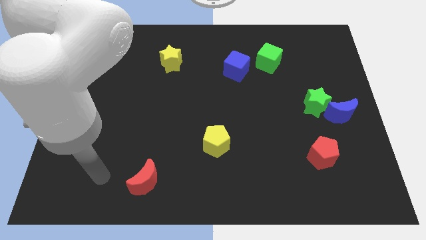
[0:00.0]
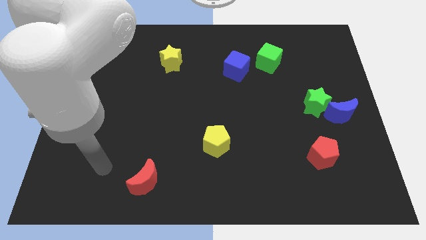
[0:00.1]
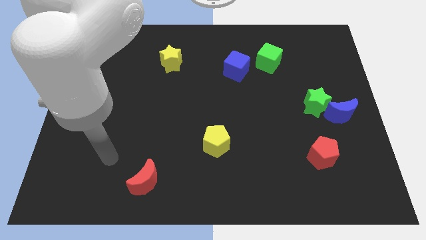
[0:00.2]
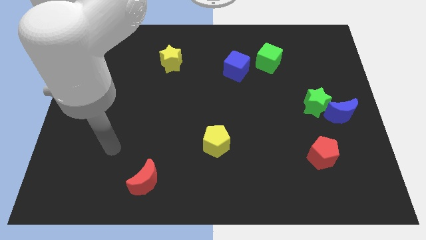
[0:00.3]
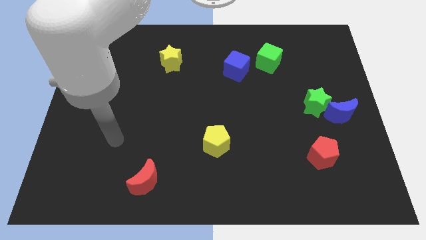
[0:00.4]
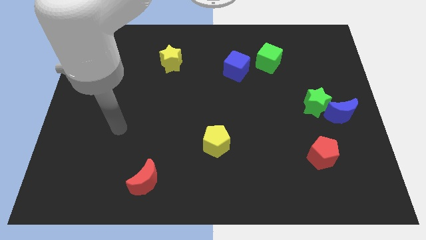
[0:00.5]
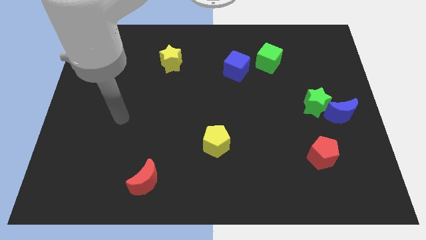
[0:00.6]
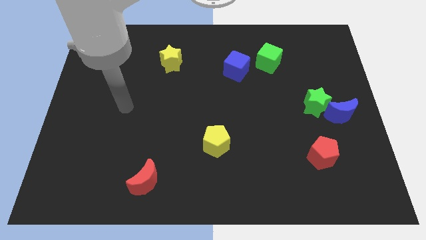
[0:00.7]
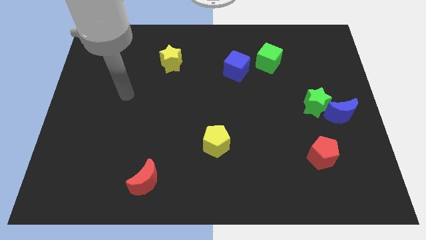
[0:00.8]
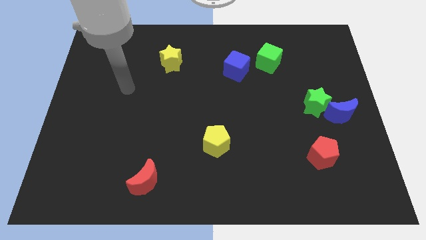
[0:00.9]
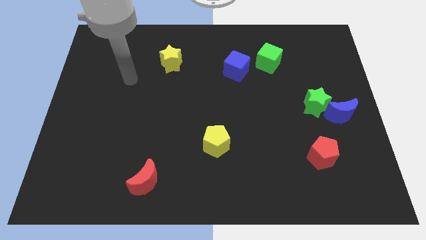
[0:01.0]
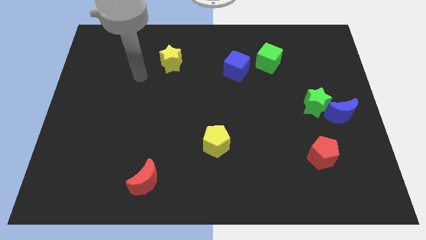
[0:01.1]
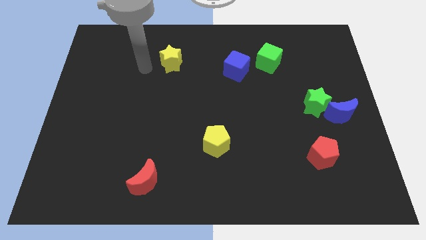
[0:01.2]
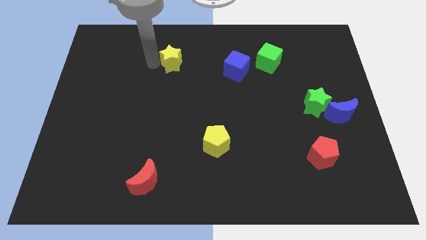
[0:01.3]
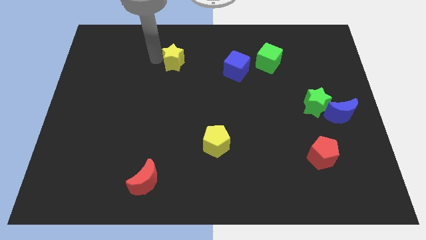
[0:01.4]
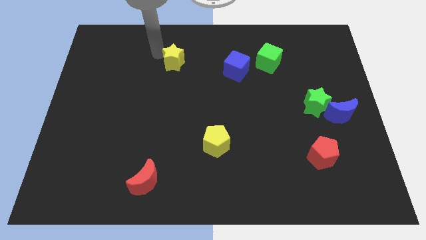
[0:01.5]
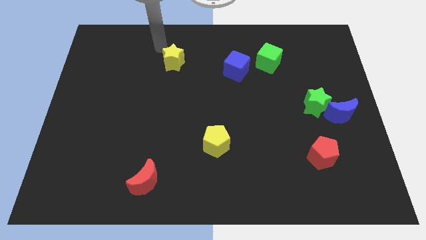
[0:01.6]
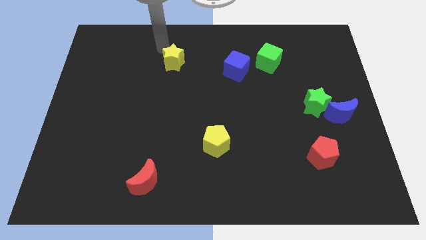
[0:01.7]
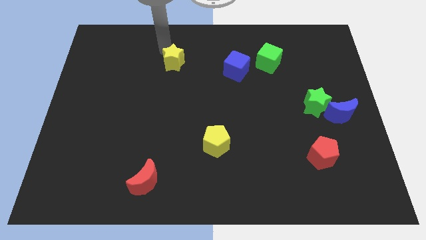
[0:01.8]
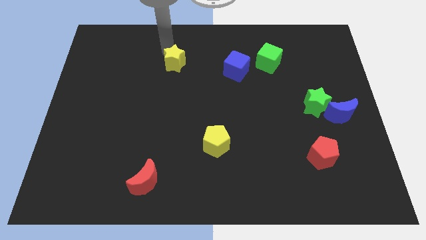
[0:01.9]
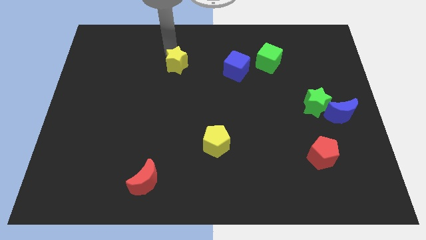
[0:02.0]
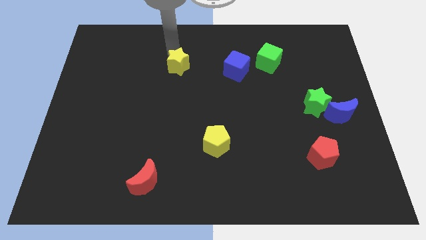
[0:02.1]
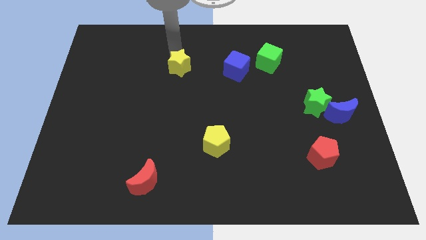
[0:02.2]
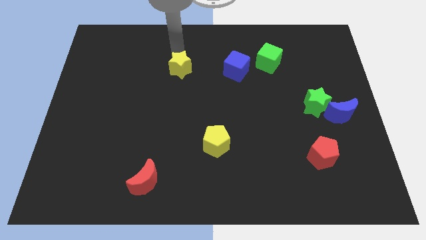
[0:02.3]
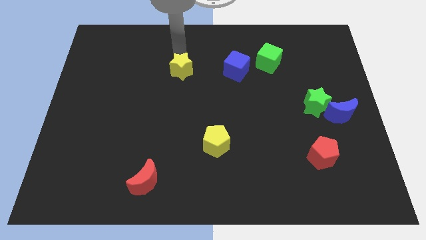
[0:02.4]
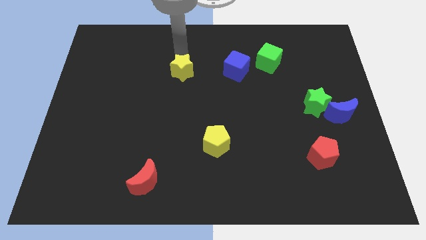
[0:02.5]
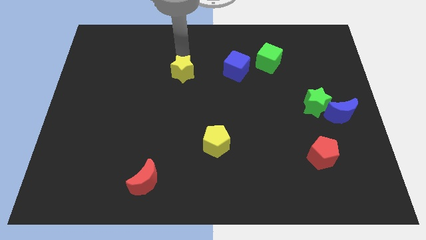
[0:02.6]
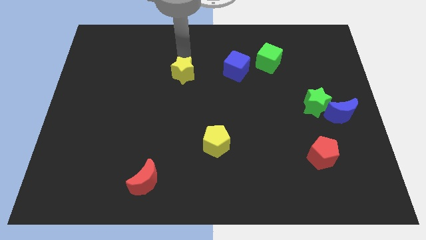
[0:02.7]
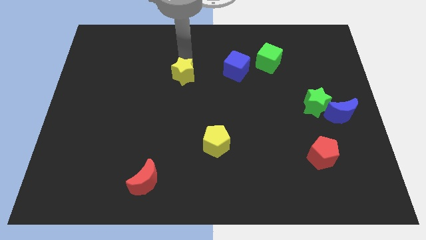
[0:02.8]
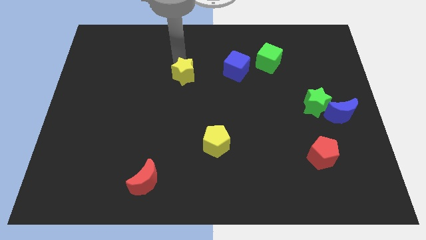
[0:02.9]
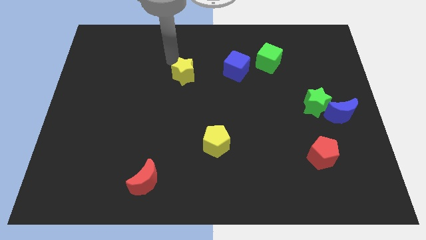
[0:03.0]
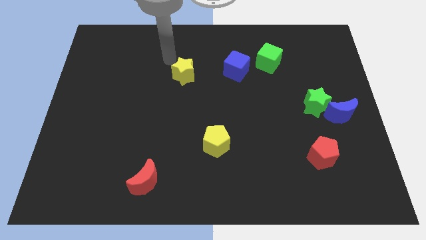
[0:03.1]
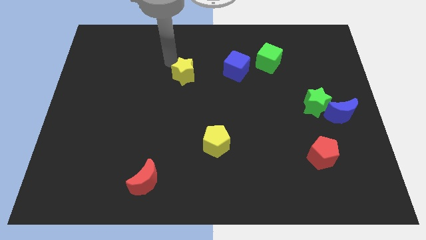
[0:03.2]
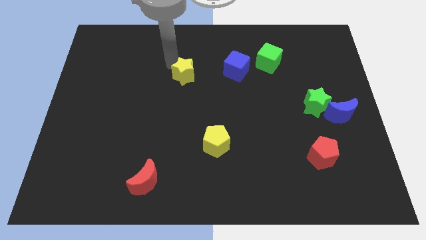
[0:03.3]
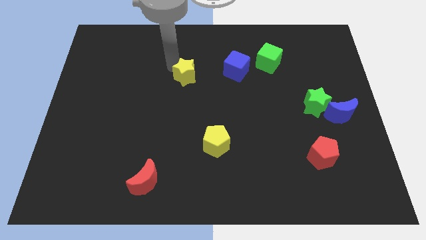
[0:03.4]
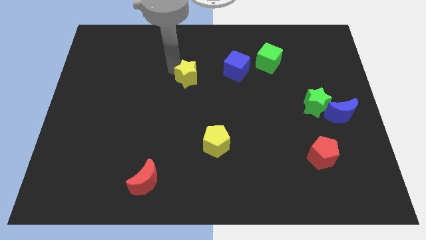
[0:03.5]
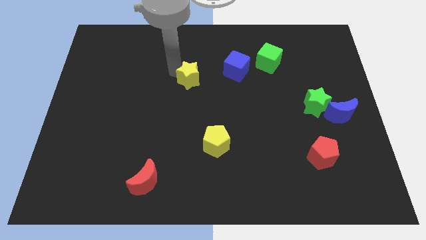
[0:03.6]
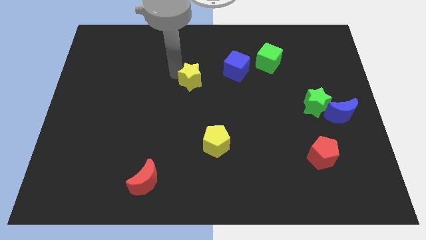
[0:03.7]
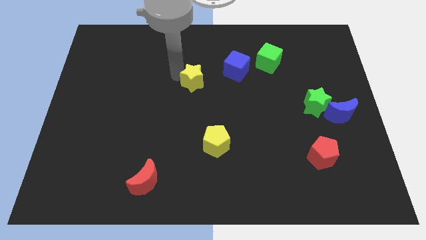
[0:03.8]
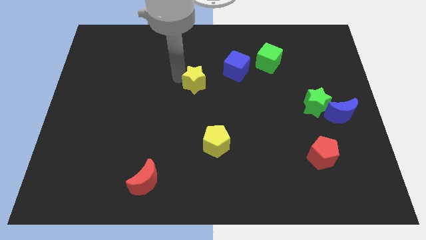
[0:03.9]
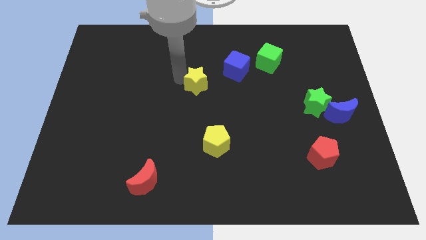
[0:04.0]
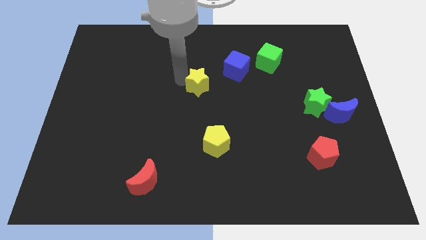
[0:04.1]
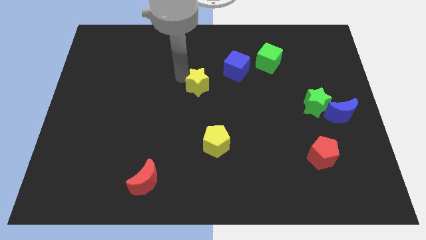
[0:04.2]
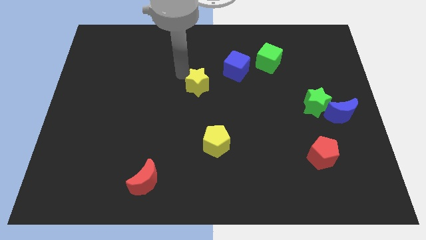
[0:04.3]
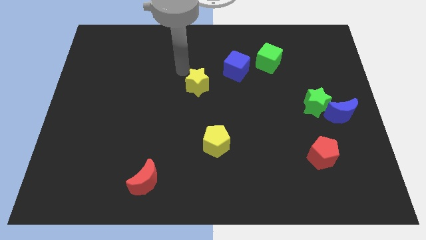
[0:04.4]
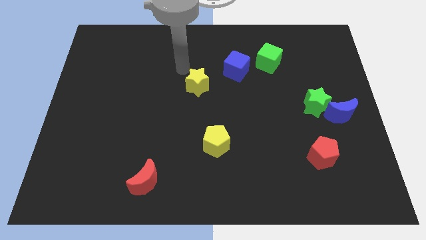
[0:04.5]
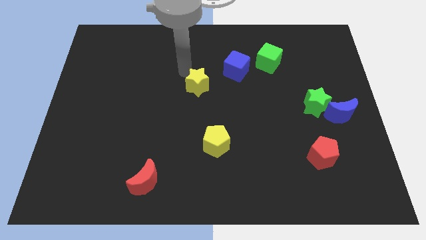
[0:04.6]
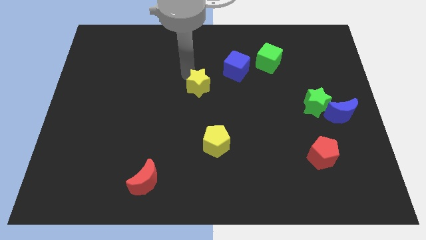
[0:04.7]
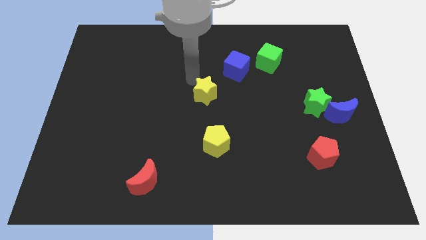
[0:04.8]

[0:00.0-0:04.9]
push the yellow star to the top side of the yellow pentagon

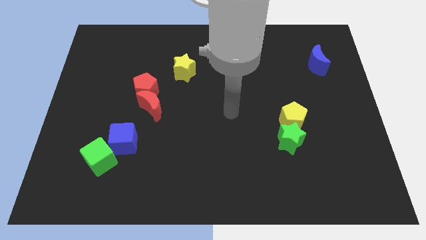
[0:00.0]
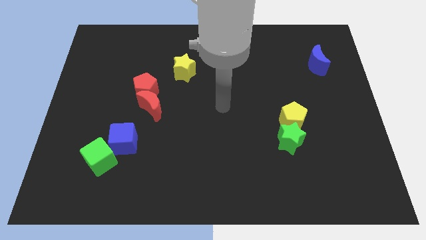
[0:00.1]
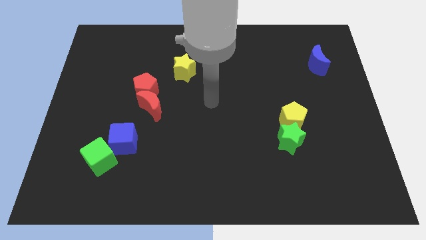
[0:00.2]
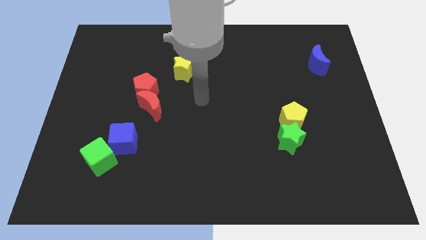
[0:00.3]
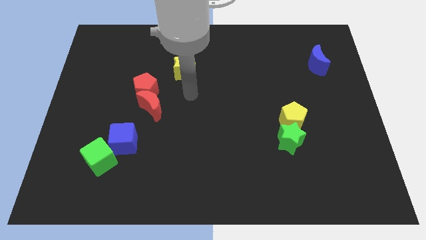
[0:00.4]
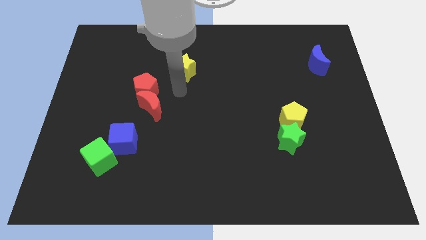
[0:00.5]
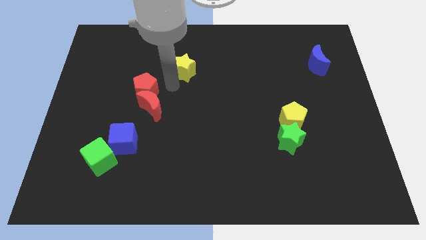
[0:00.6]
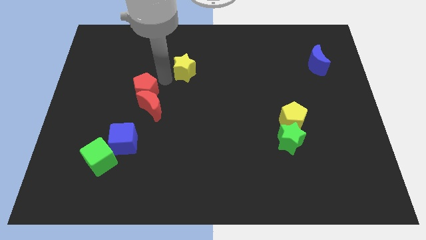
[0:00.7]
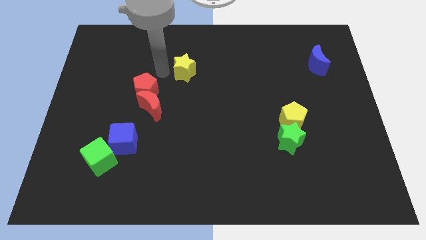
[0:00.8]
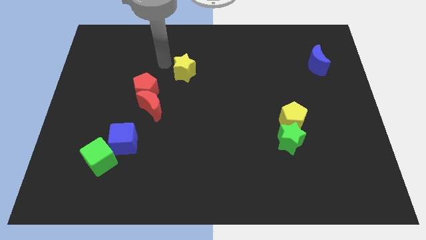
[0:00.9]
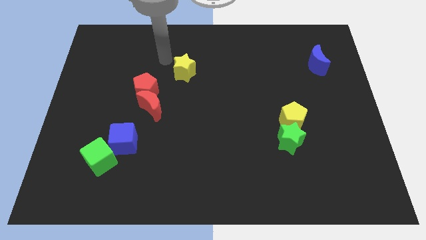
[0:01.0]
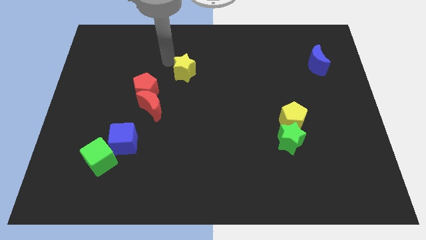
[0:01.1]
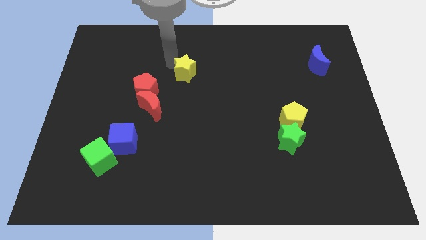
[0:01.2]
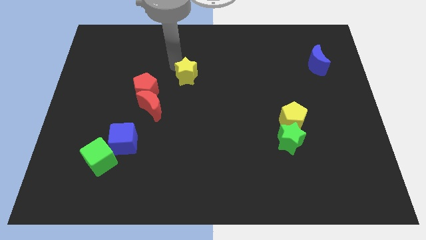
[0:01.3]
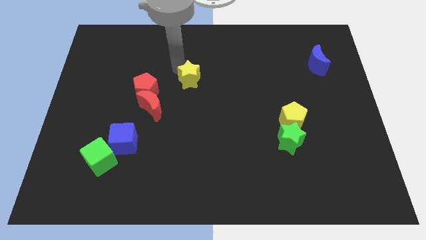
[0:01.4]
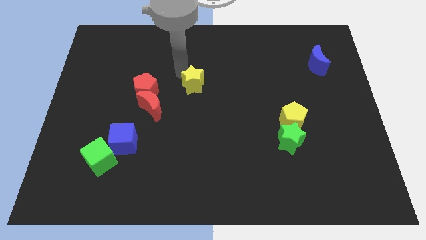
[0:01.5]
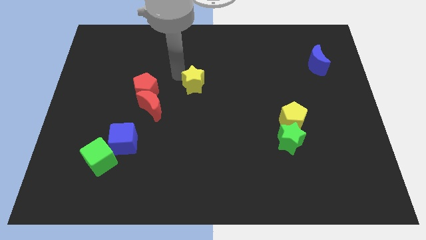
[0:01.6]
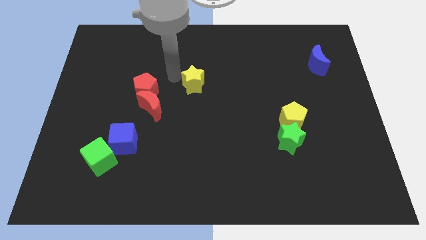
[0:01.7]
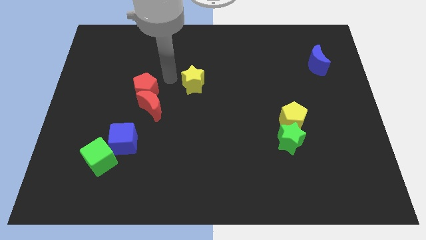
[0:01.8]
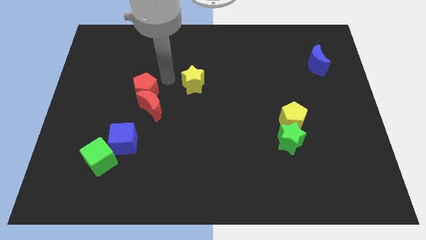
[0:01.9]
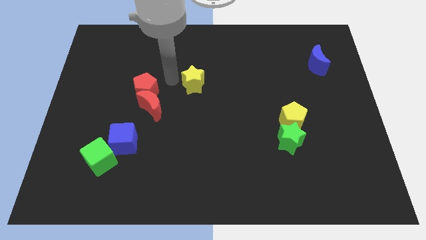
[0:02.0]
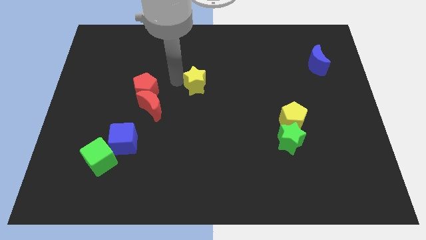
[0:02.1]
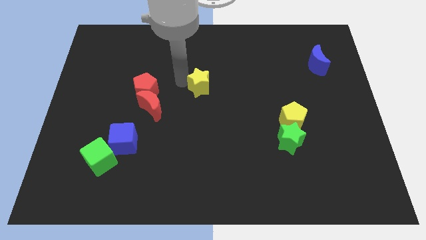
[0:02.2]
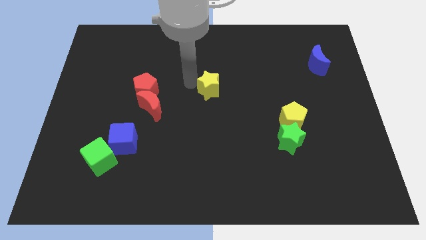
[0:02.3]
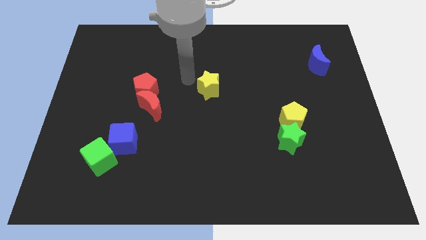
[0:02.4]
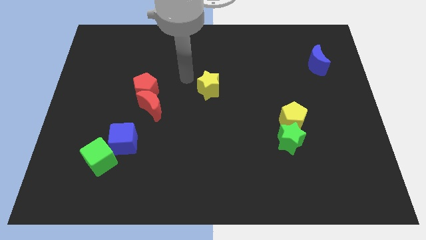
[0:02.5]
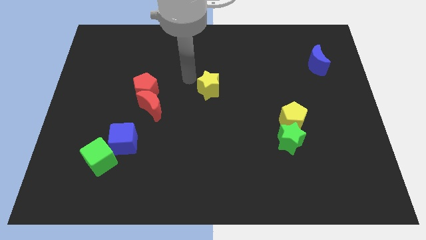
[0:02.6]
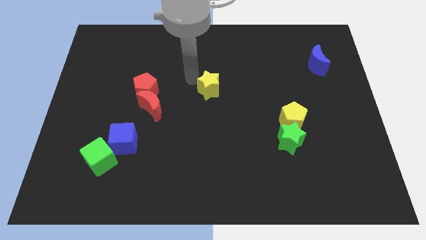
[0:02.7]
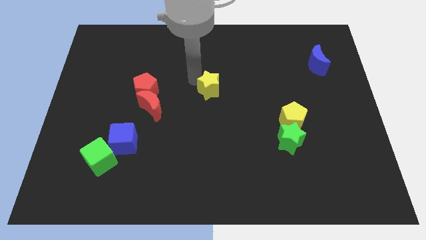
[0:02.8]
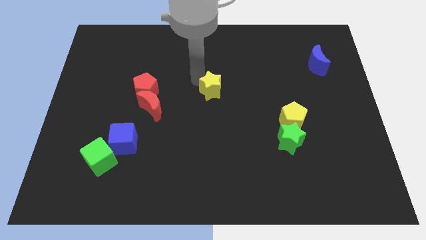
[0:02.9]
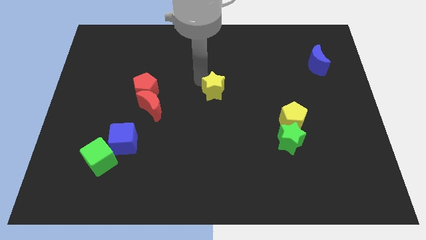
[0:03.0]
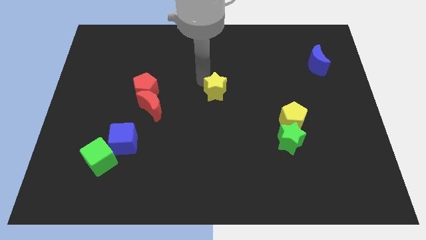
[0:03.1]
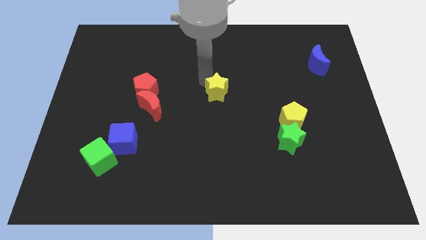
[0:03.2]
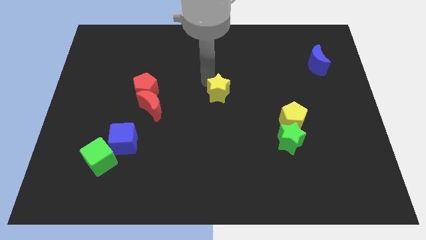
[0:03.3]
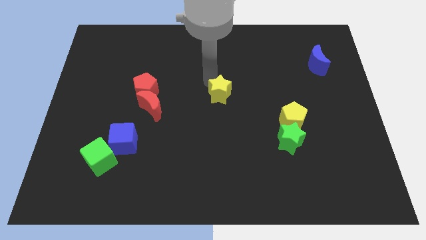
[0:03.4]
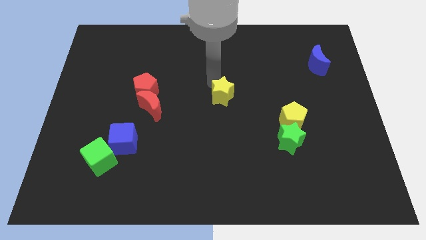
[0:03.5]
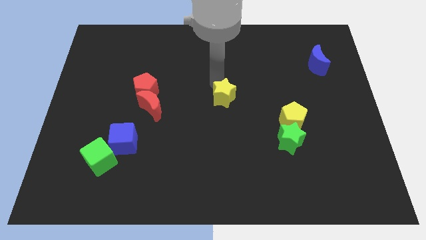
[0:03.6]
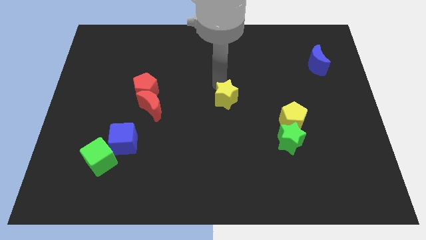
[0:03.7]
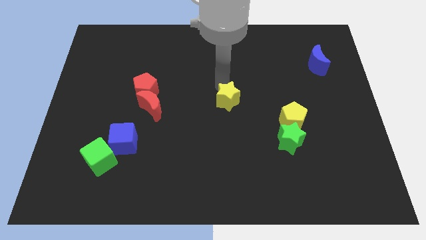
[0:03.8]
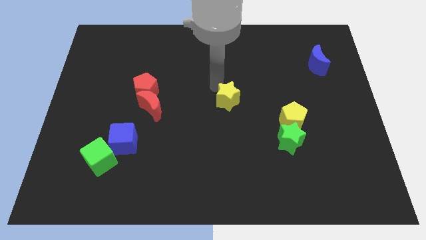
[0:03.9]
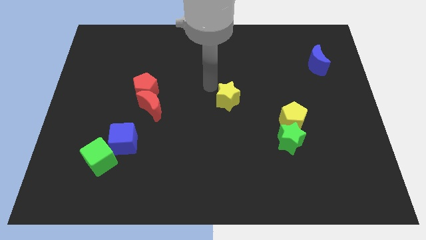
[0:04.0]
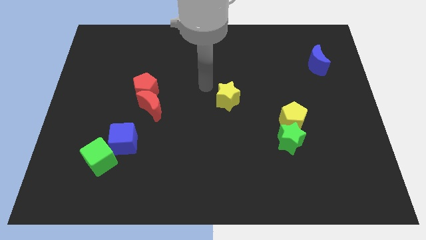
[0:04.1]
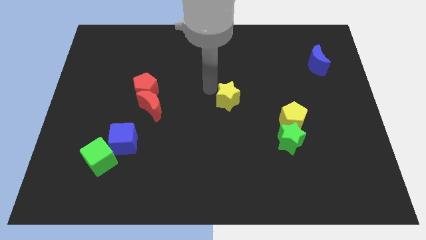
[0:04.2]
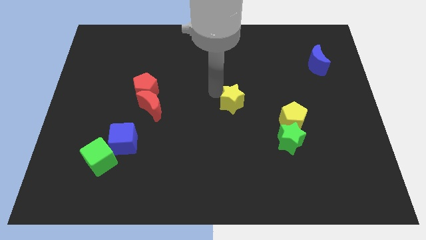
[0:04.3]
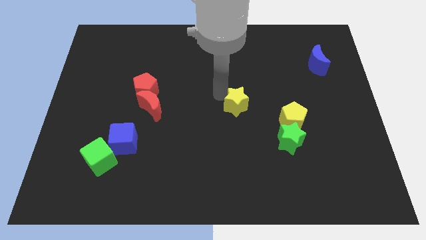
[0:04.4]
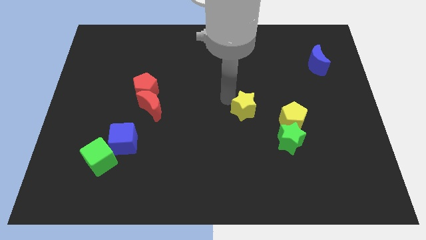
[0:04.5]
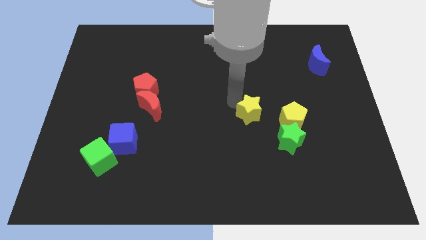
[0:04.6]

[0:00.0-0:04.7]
slide the yellow star to the top left side of the green star
